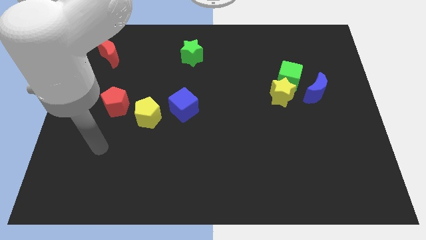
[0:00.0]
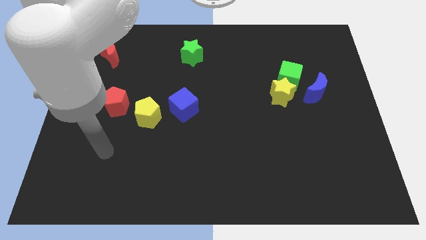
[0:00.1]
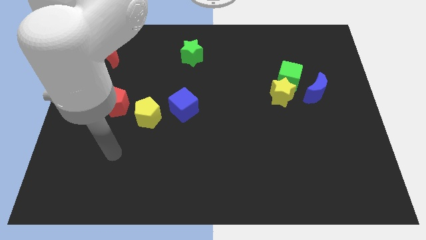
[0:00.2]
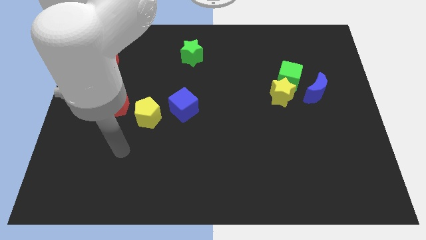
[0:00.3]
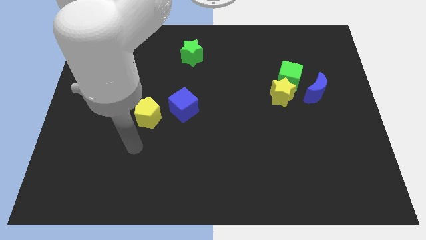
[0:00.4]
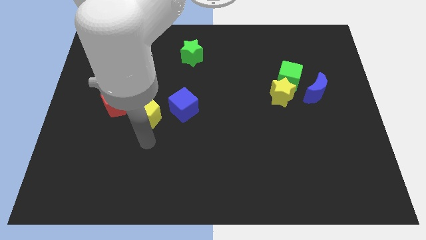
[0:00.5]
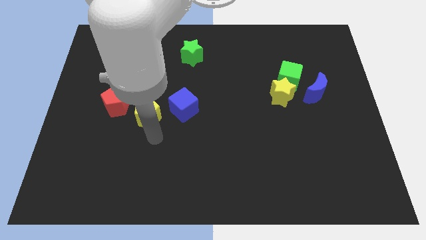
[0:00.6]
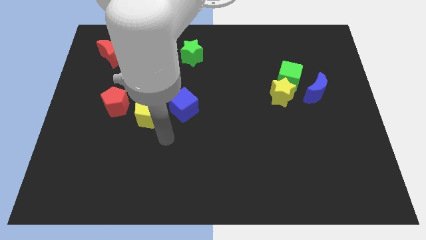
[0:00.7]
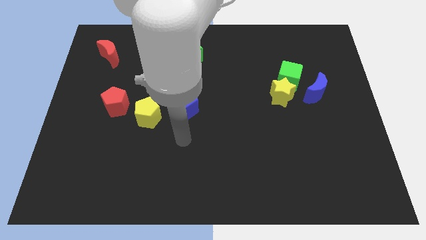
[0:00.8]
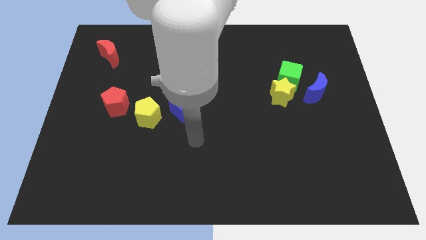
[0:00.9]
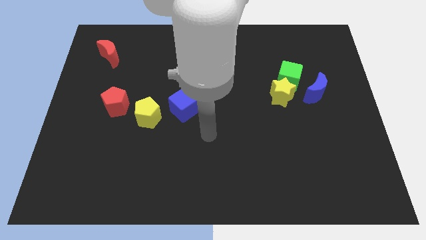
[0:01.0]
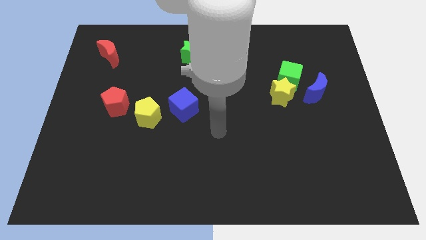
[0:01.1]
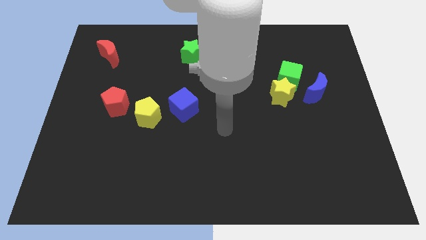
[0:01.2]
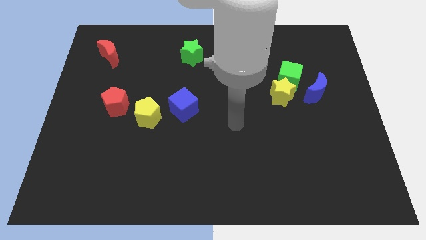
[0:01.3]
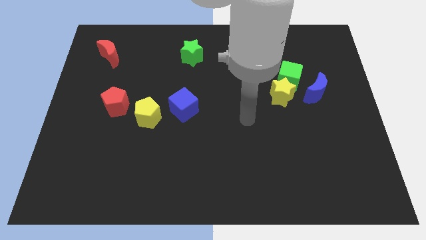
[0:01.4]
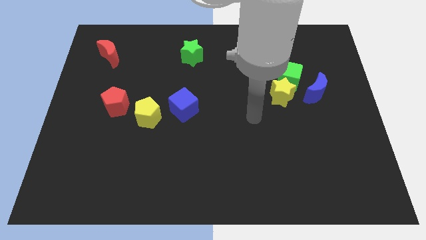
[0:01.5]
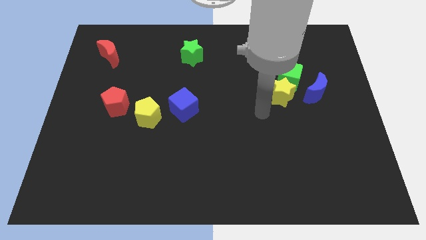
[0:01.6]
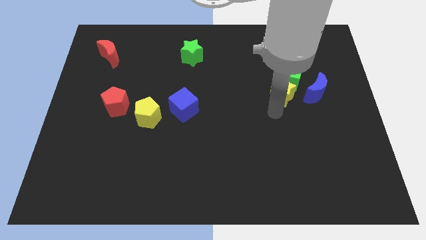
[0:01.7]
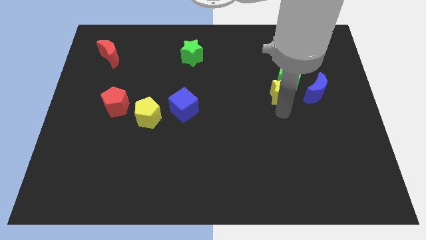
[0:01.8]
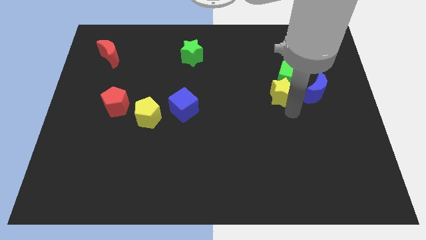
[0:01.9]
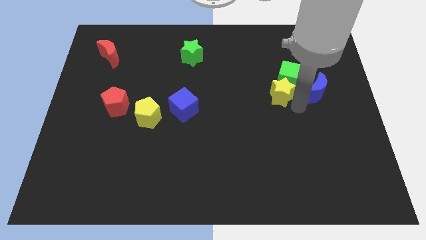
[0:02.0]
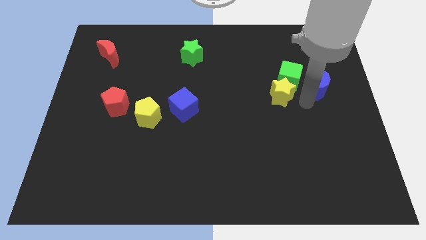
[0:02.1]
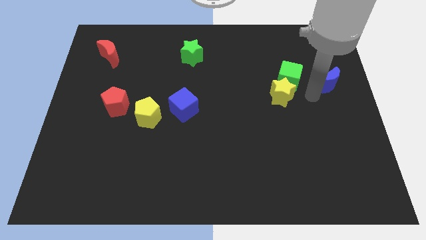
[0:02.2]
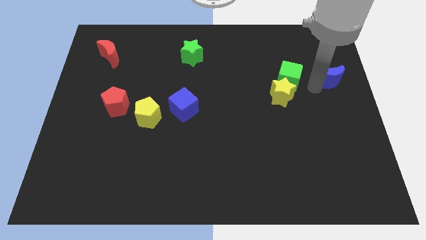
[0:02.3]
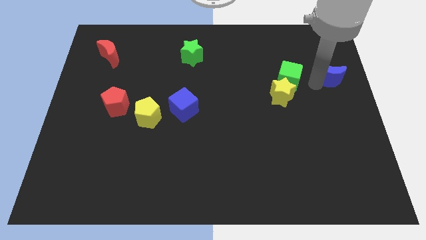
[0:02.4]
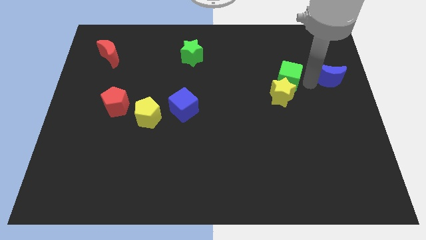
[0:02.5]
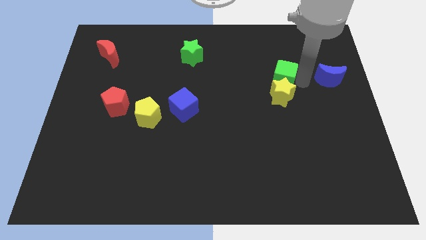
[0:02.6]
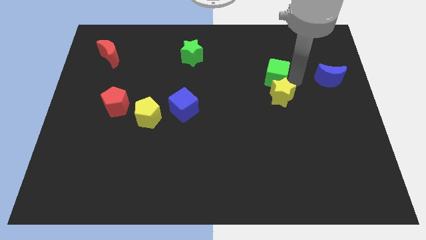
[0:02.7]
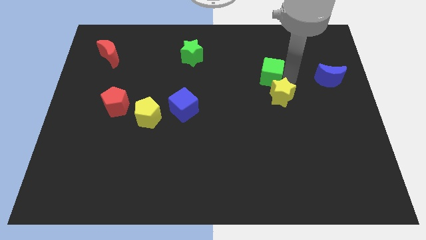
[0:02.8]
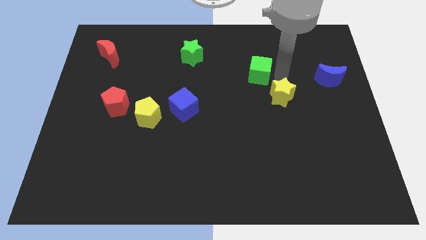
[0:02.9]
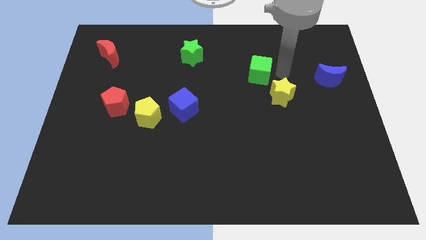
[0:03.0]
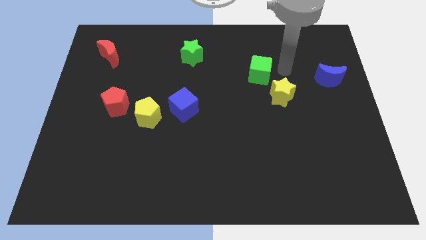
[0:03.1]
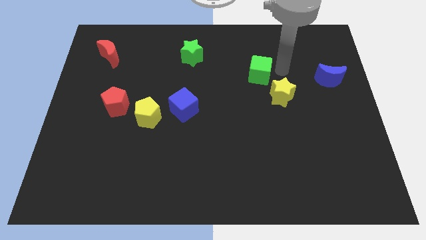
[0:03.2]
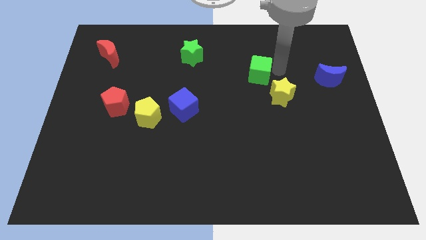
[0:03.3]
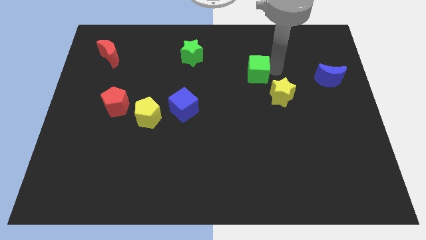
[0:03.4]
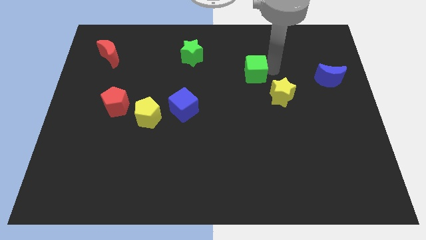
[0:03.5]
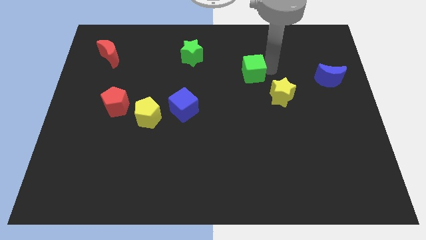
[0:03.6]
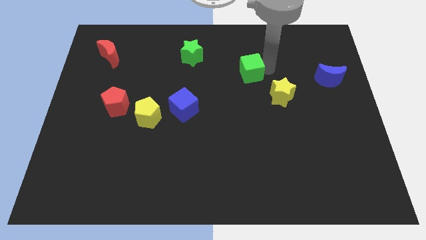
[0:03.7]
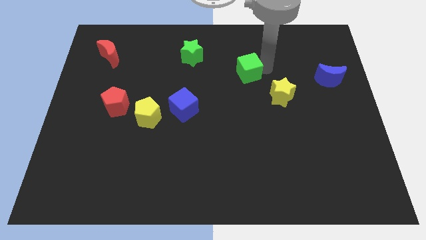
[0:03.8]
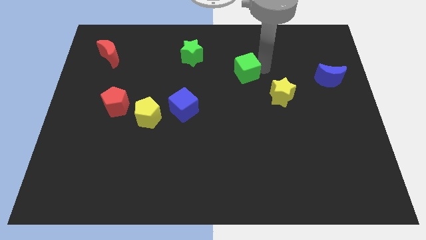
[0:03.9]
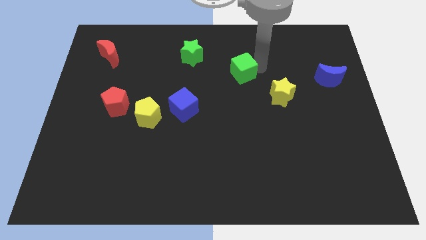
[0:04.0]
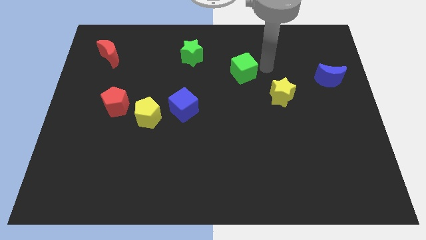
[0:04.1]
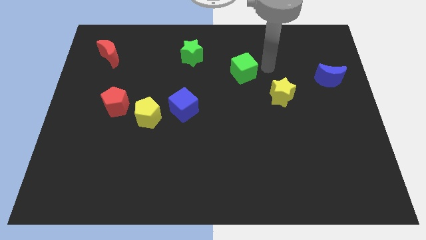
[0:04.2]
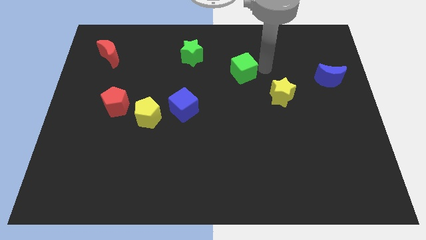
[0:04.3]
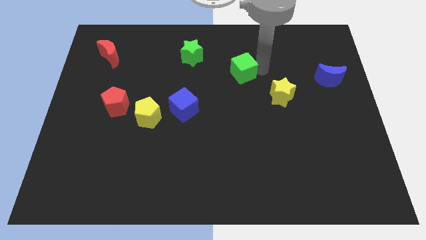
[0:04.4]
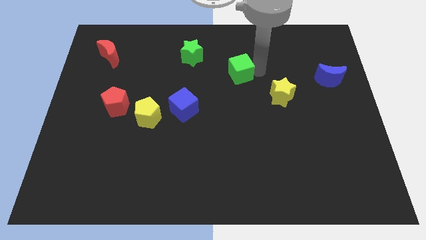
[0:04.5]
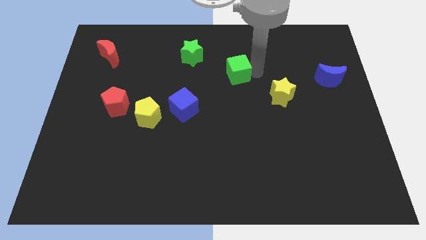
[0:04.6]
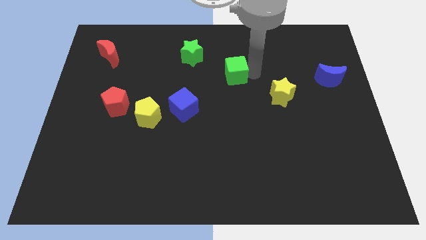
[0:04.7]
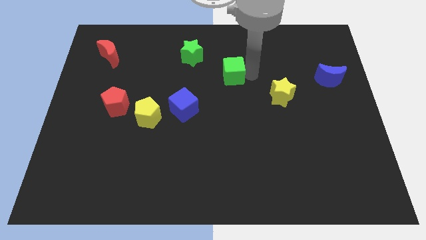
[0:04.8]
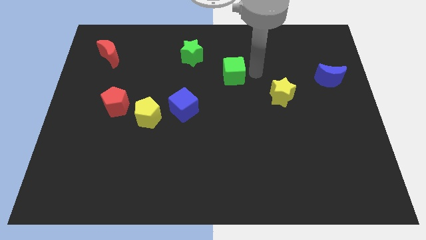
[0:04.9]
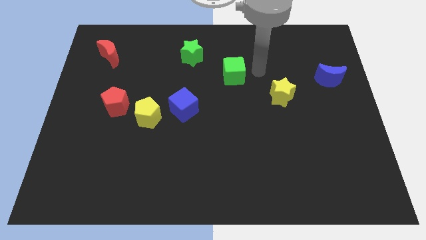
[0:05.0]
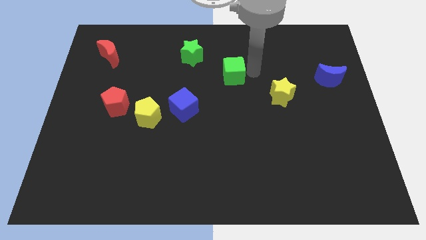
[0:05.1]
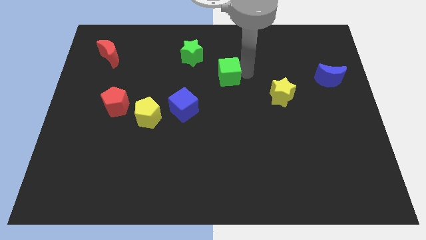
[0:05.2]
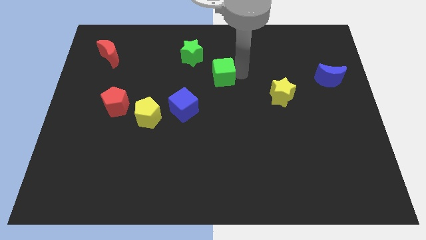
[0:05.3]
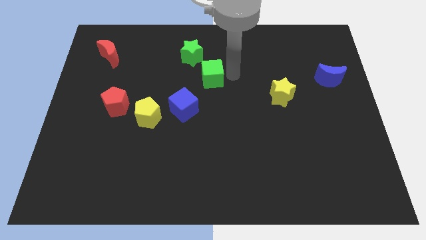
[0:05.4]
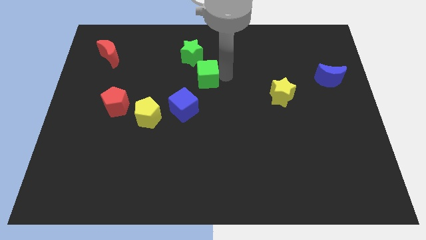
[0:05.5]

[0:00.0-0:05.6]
move the green cube to the left

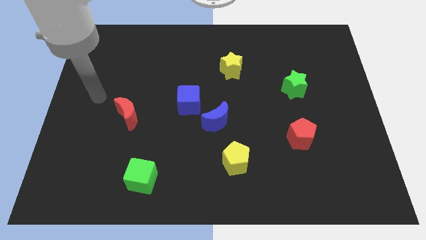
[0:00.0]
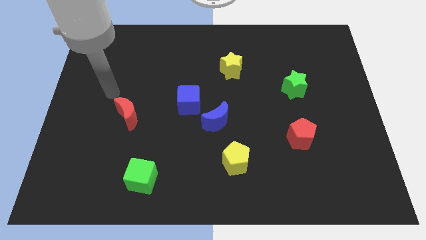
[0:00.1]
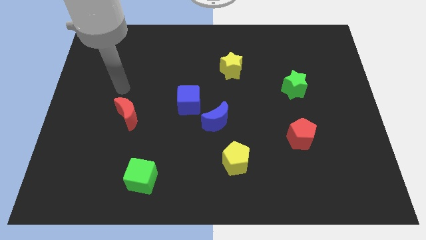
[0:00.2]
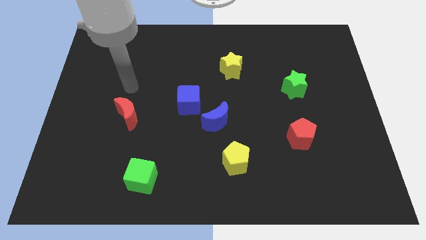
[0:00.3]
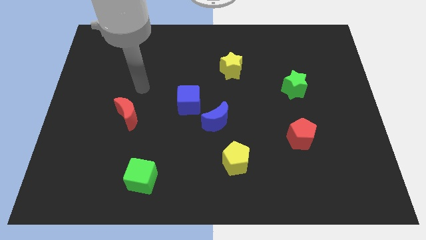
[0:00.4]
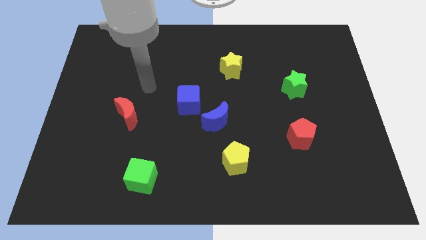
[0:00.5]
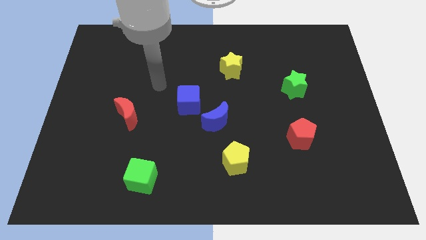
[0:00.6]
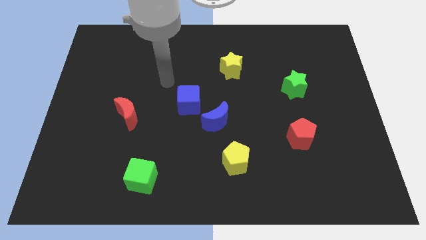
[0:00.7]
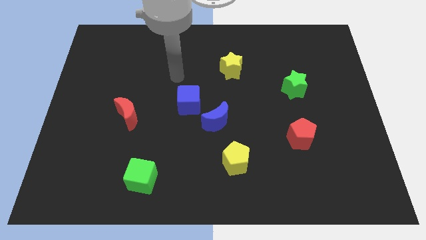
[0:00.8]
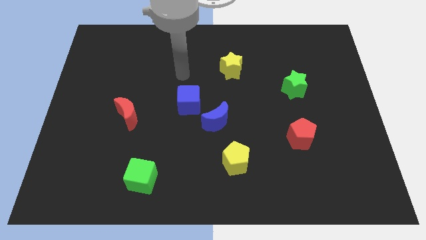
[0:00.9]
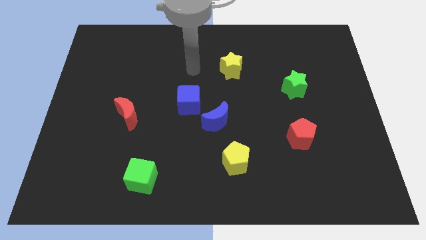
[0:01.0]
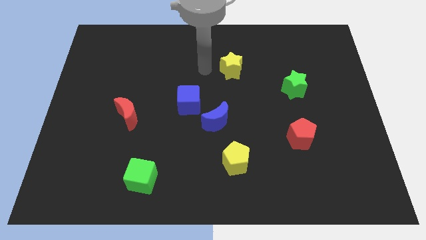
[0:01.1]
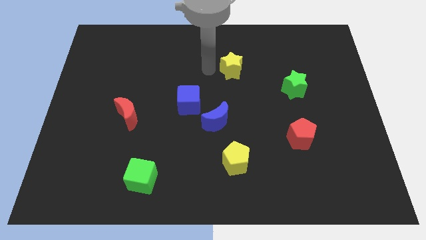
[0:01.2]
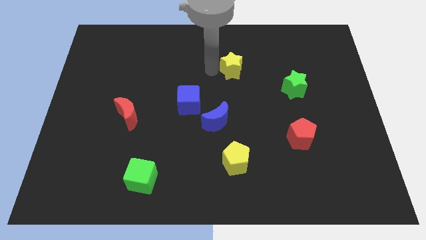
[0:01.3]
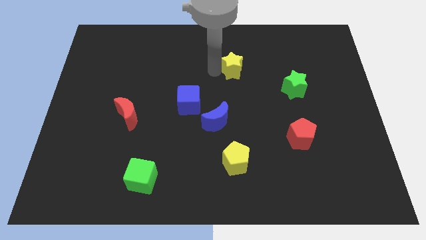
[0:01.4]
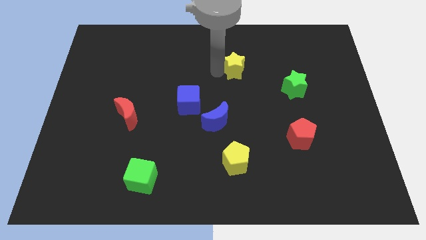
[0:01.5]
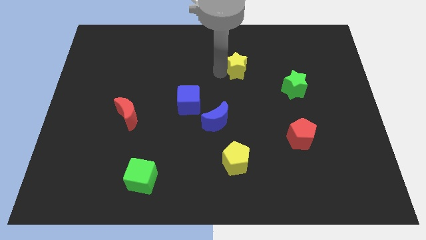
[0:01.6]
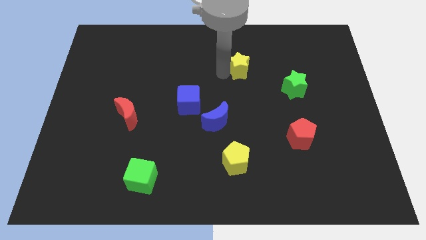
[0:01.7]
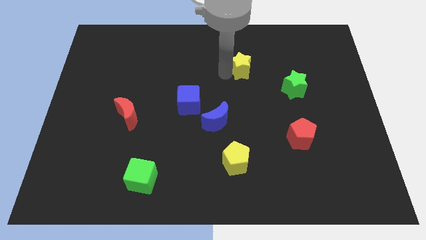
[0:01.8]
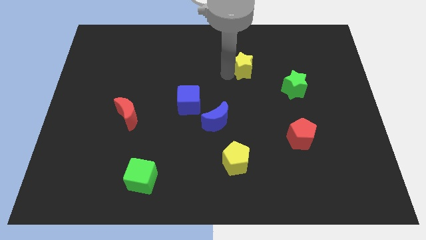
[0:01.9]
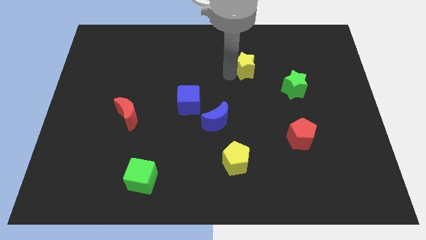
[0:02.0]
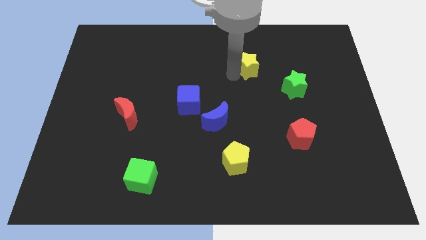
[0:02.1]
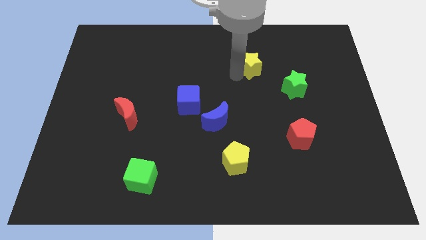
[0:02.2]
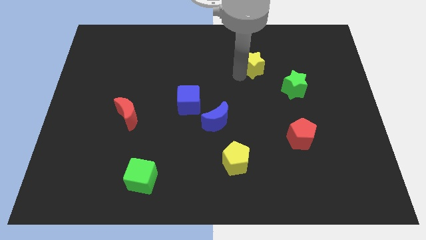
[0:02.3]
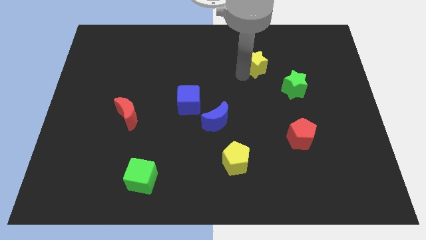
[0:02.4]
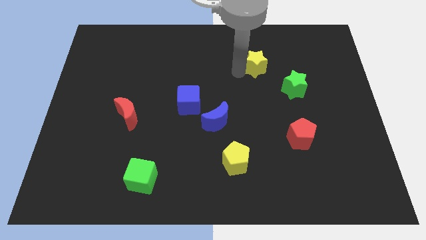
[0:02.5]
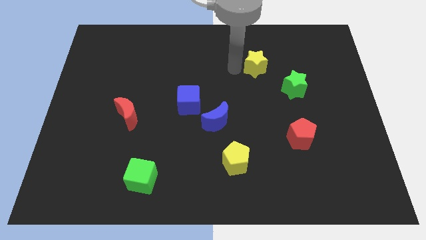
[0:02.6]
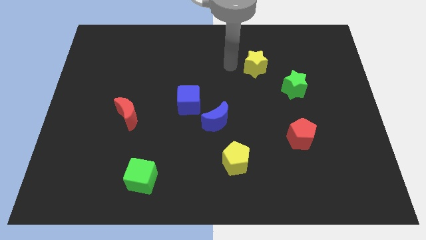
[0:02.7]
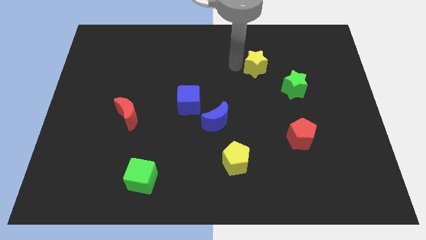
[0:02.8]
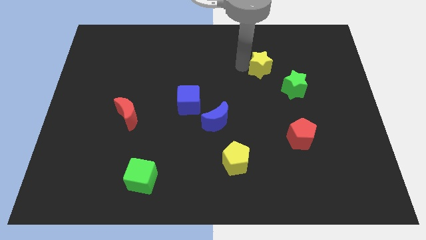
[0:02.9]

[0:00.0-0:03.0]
slightly slide the yellow star to the right
